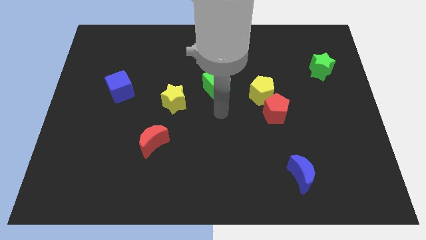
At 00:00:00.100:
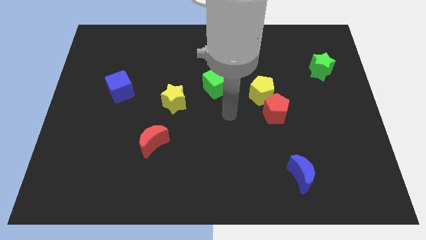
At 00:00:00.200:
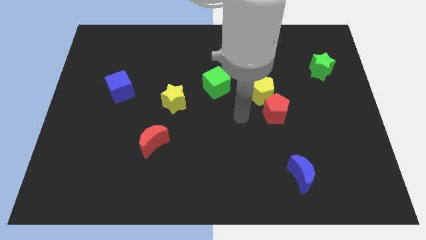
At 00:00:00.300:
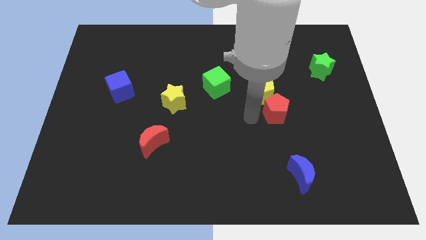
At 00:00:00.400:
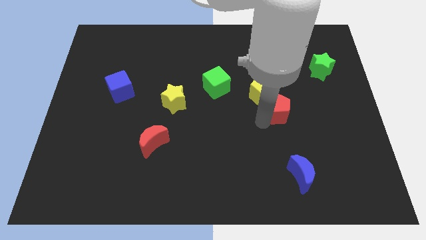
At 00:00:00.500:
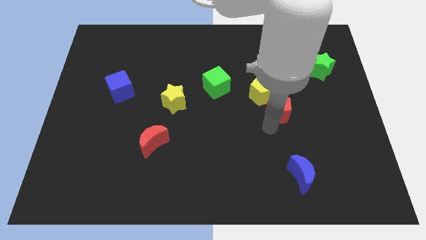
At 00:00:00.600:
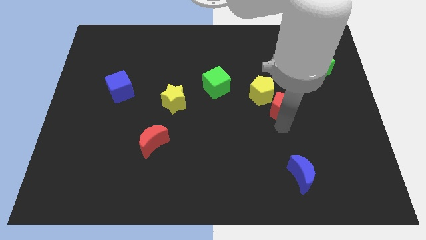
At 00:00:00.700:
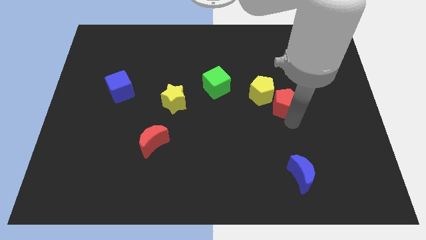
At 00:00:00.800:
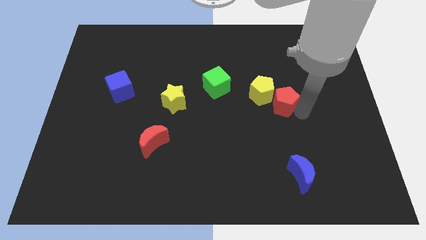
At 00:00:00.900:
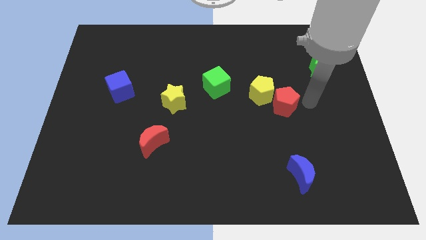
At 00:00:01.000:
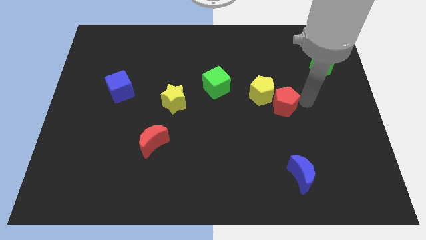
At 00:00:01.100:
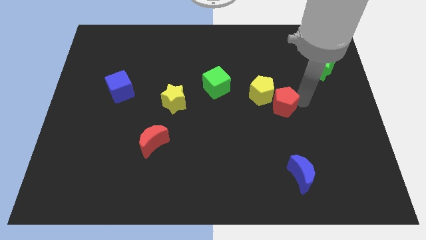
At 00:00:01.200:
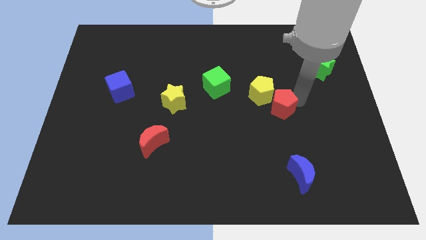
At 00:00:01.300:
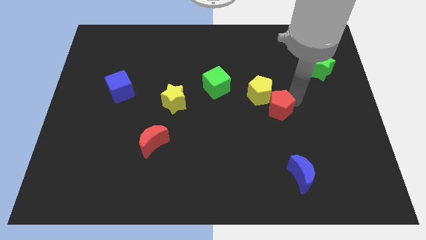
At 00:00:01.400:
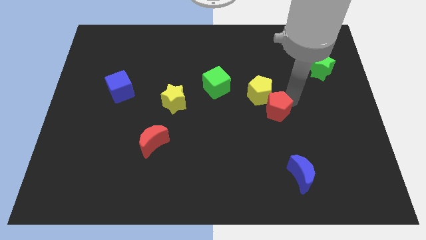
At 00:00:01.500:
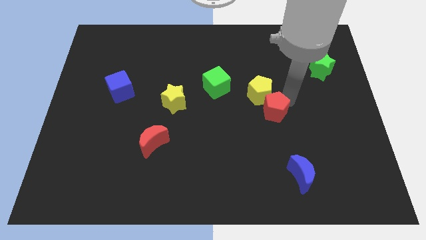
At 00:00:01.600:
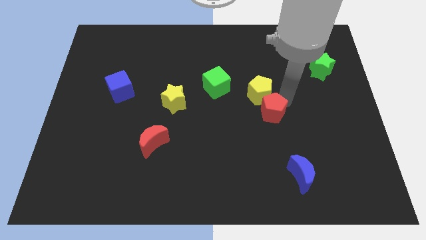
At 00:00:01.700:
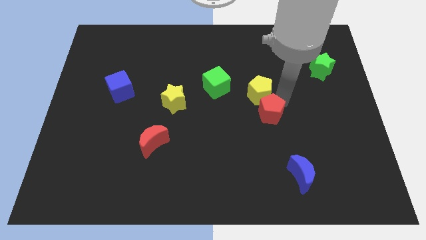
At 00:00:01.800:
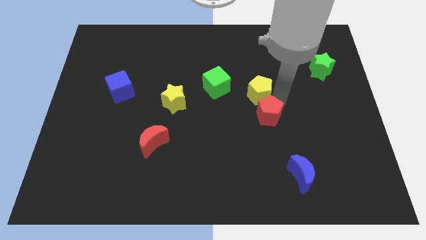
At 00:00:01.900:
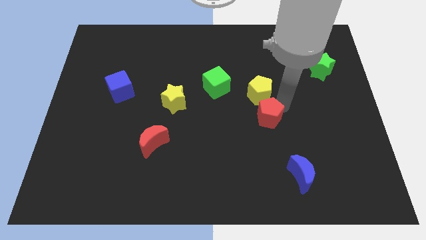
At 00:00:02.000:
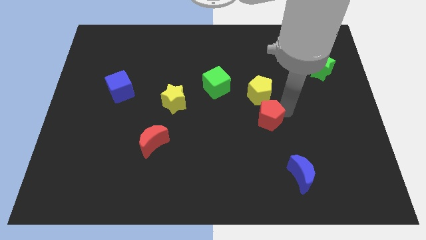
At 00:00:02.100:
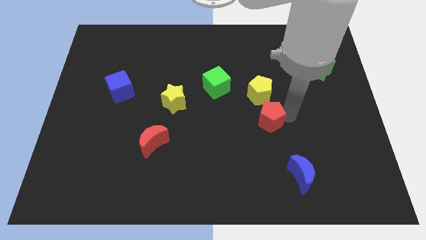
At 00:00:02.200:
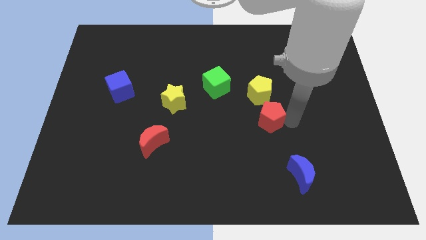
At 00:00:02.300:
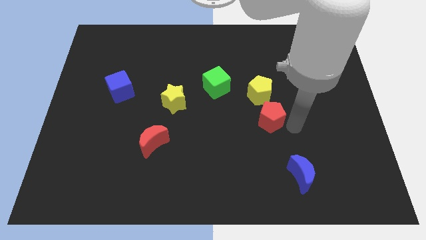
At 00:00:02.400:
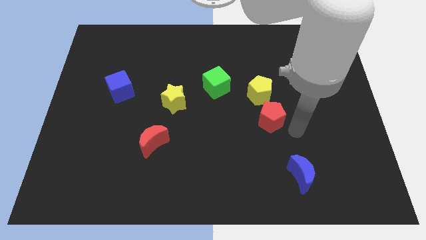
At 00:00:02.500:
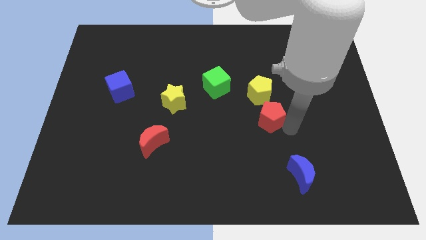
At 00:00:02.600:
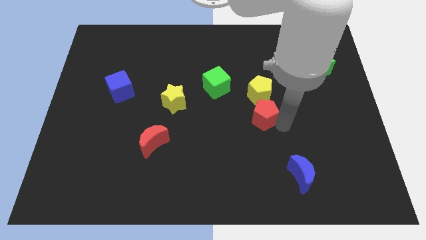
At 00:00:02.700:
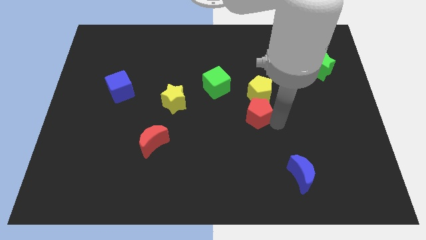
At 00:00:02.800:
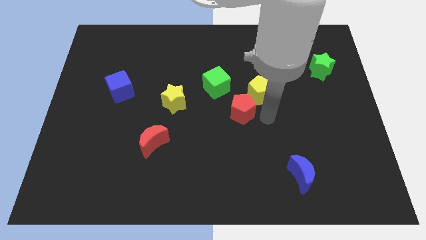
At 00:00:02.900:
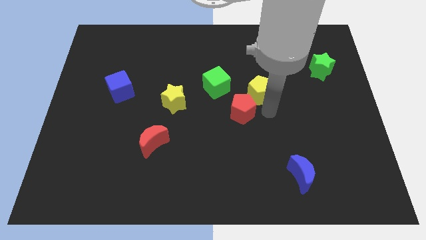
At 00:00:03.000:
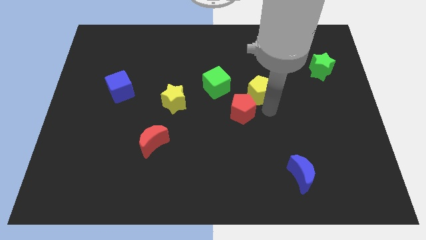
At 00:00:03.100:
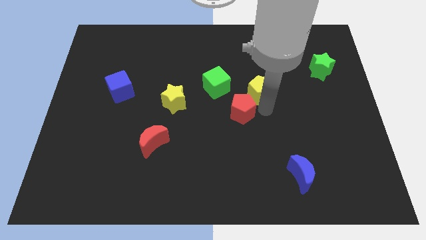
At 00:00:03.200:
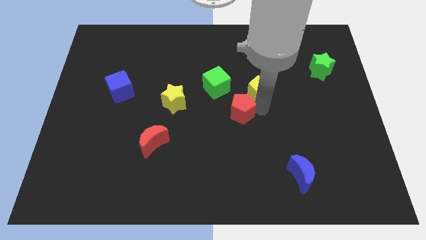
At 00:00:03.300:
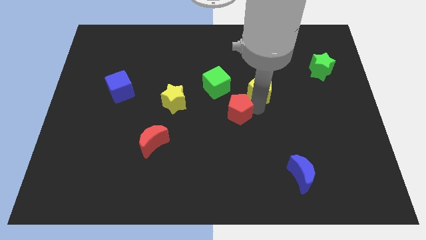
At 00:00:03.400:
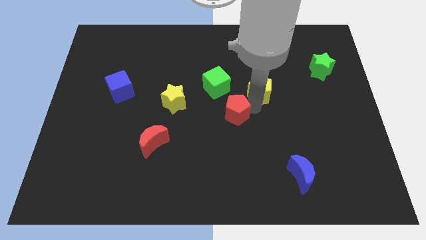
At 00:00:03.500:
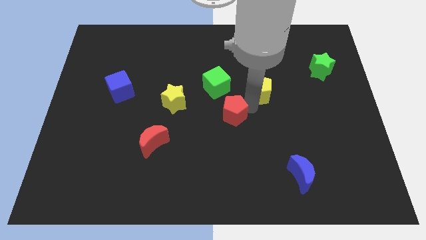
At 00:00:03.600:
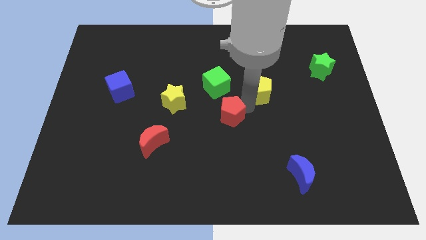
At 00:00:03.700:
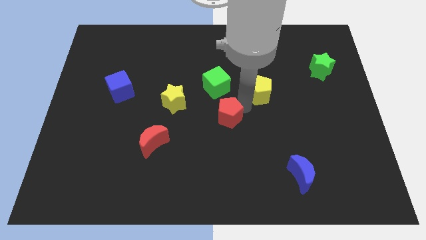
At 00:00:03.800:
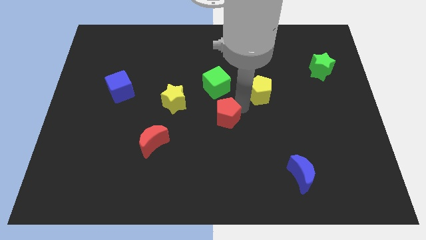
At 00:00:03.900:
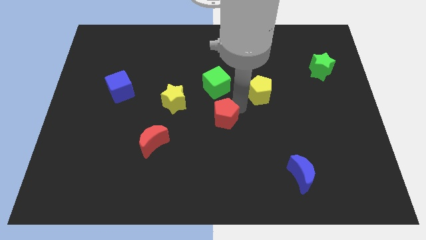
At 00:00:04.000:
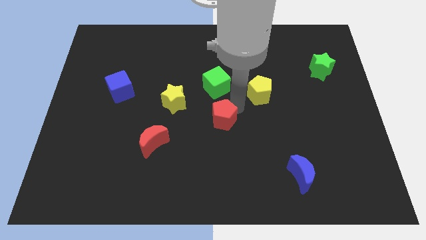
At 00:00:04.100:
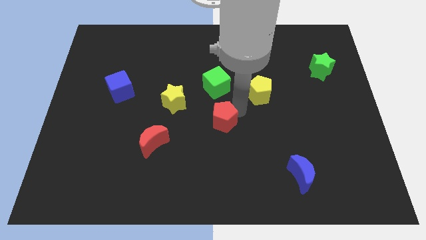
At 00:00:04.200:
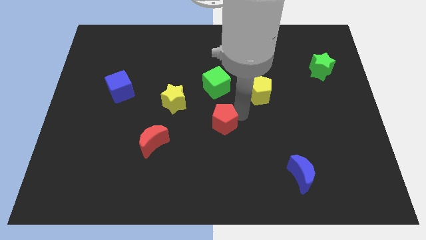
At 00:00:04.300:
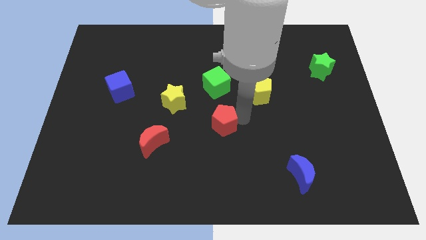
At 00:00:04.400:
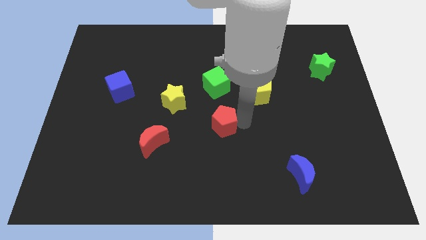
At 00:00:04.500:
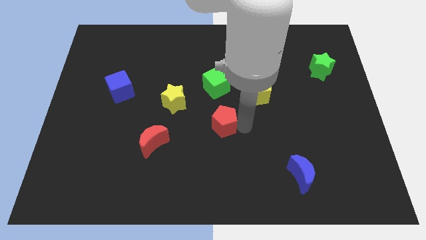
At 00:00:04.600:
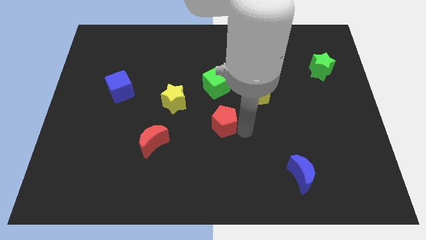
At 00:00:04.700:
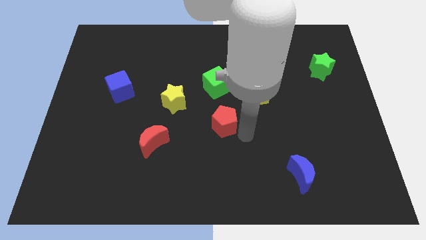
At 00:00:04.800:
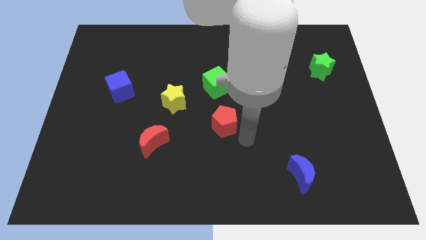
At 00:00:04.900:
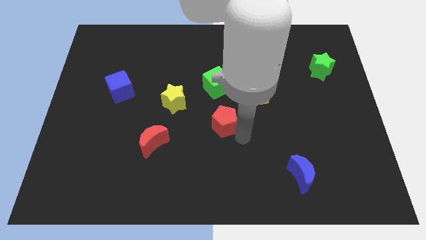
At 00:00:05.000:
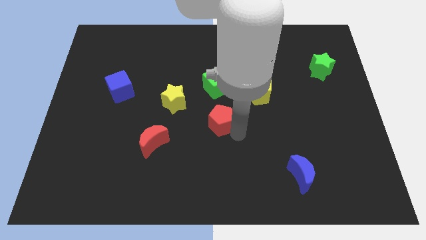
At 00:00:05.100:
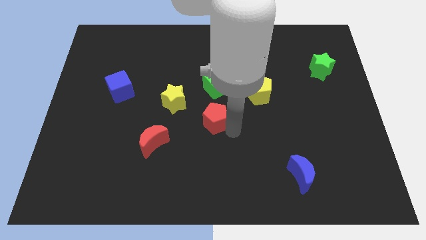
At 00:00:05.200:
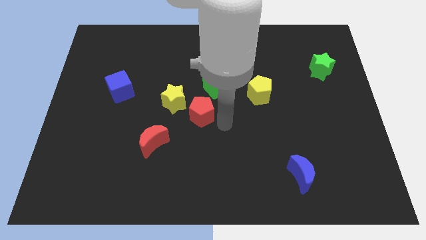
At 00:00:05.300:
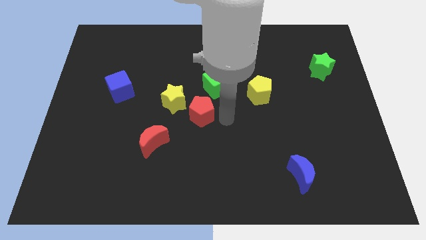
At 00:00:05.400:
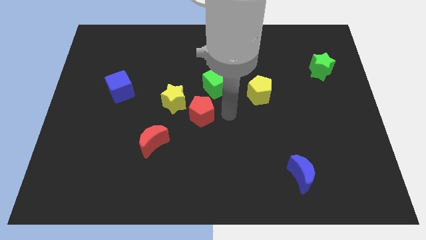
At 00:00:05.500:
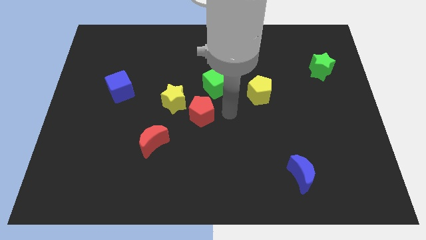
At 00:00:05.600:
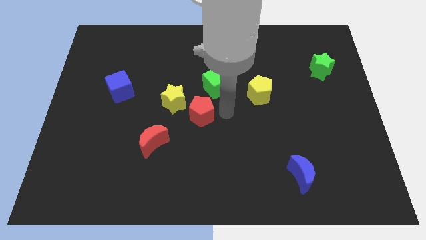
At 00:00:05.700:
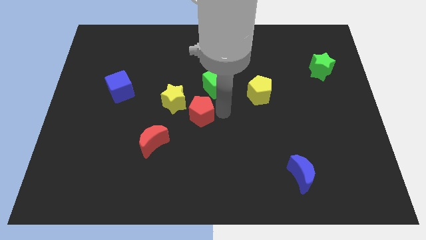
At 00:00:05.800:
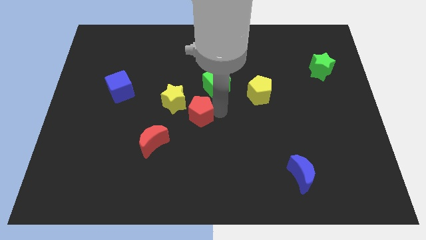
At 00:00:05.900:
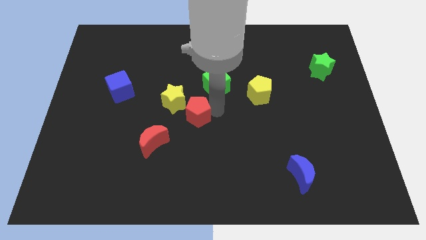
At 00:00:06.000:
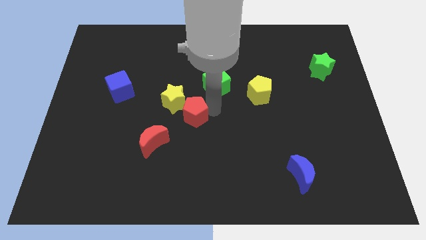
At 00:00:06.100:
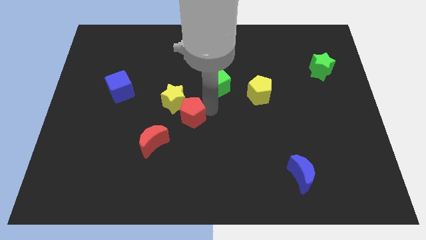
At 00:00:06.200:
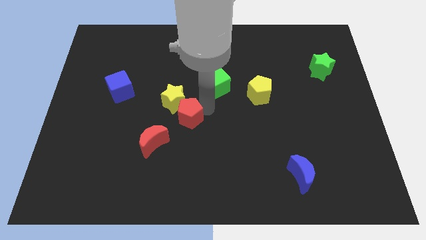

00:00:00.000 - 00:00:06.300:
push the red pentagon left

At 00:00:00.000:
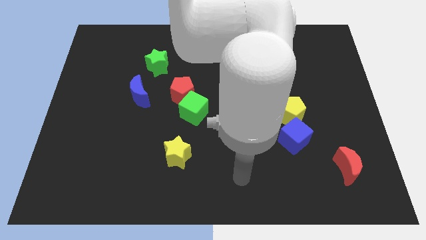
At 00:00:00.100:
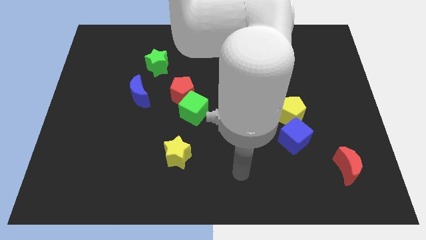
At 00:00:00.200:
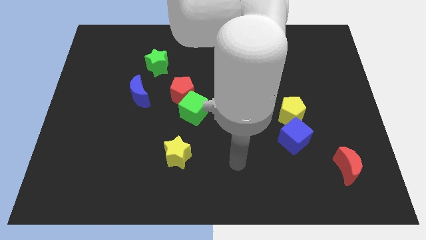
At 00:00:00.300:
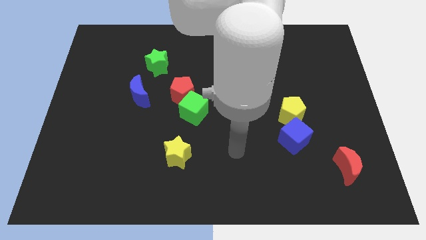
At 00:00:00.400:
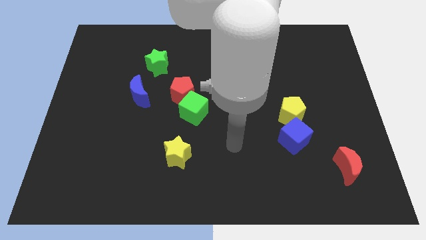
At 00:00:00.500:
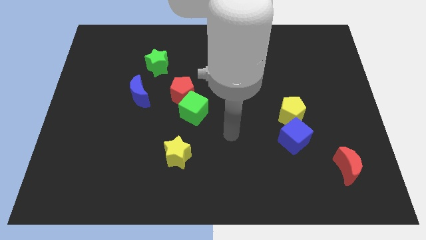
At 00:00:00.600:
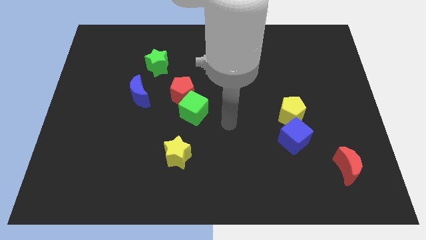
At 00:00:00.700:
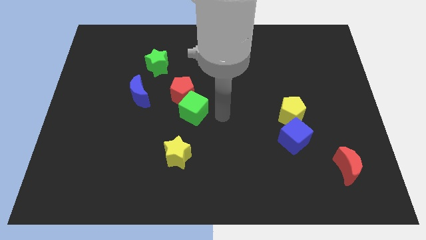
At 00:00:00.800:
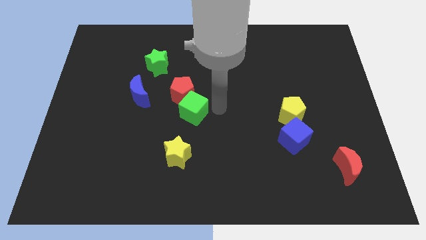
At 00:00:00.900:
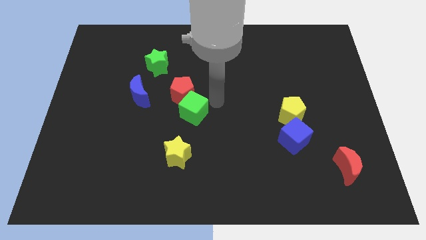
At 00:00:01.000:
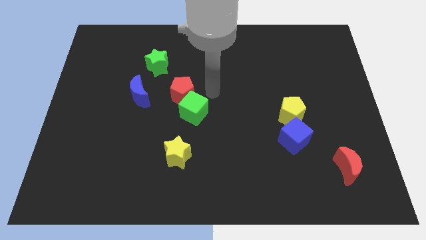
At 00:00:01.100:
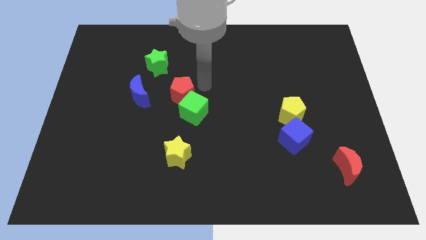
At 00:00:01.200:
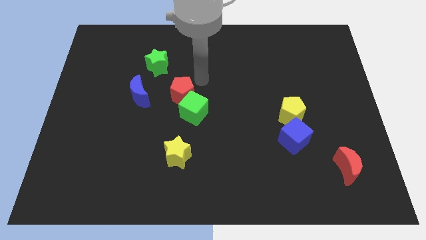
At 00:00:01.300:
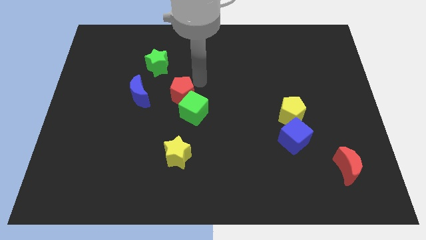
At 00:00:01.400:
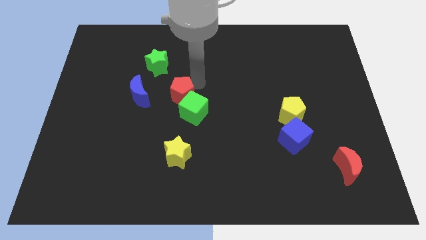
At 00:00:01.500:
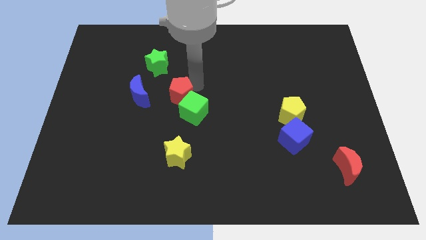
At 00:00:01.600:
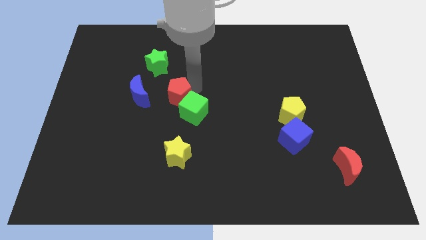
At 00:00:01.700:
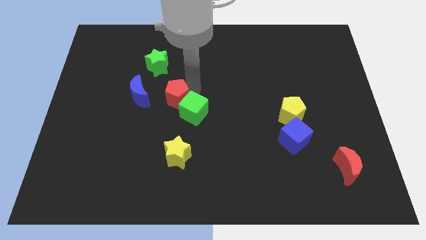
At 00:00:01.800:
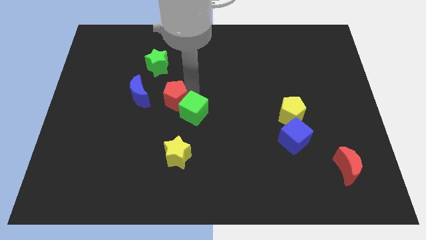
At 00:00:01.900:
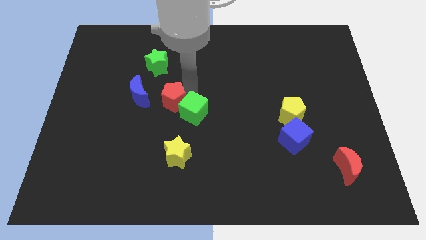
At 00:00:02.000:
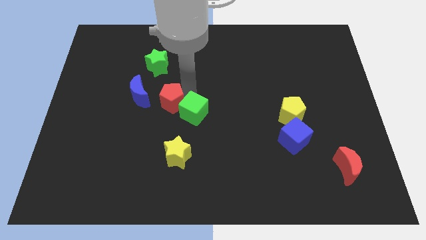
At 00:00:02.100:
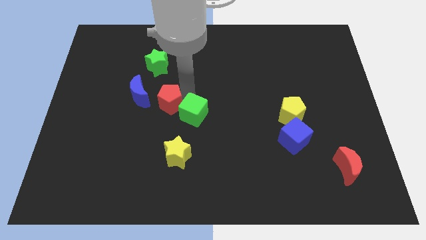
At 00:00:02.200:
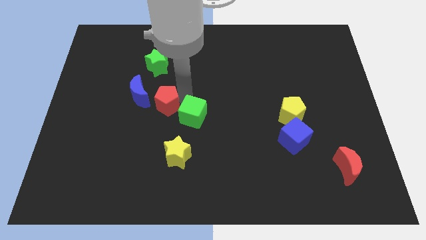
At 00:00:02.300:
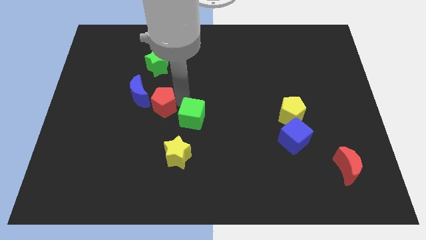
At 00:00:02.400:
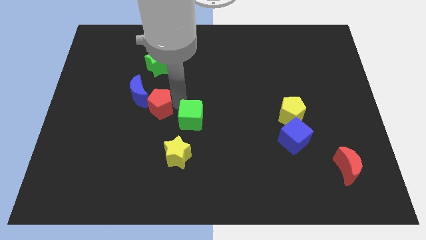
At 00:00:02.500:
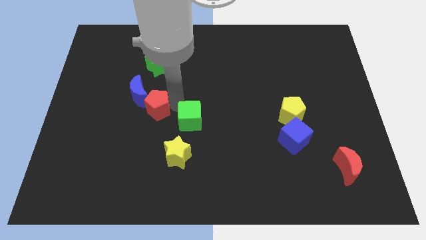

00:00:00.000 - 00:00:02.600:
push the red pentagon down and left a little bit
